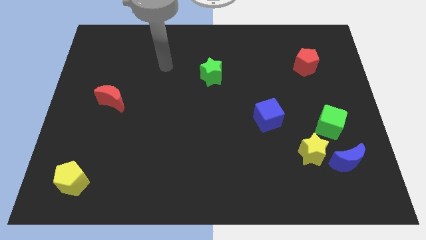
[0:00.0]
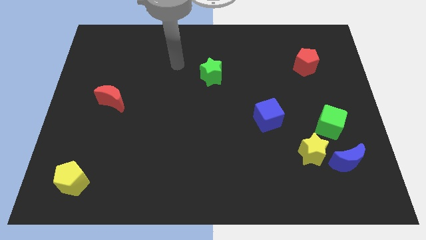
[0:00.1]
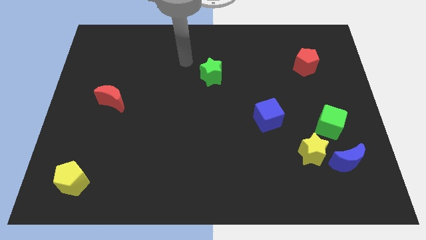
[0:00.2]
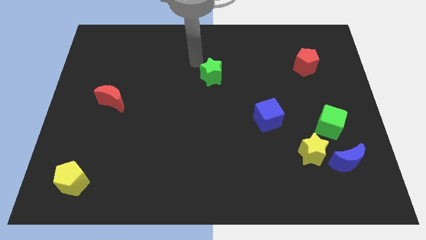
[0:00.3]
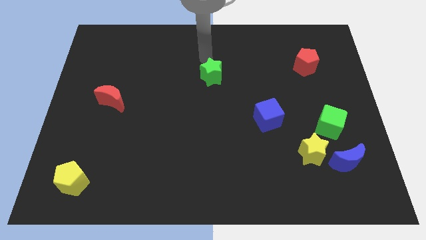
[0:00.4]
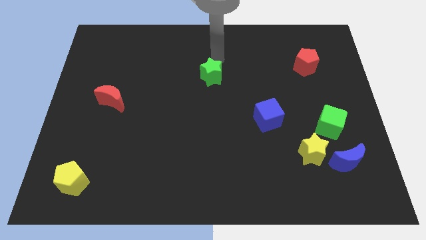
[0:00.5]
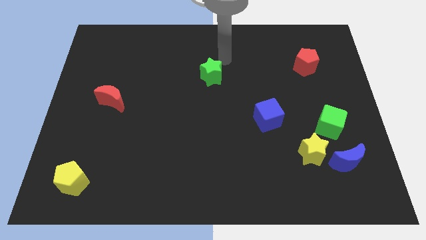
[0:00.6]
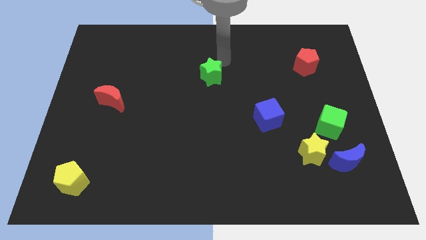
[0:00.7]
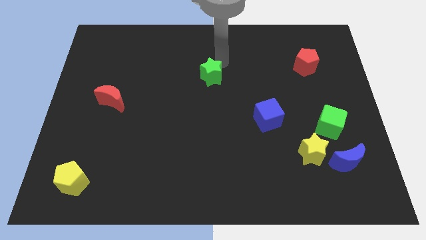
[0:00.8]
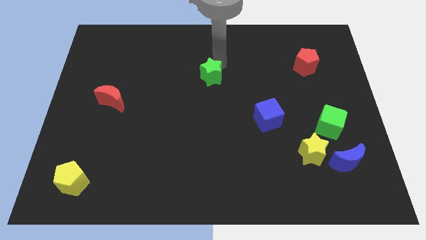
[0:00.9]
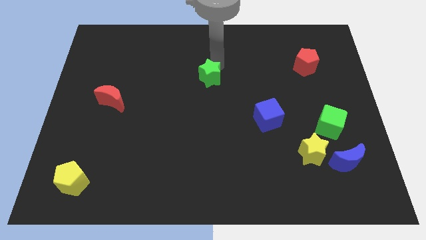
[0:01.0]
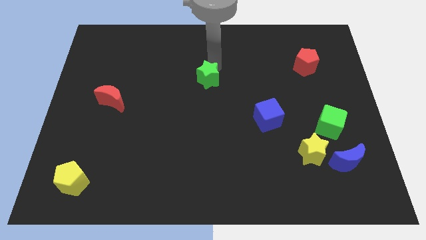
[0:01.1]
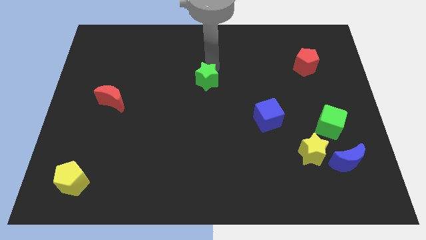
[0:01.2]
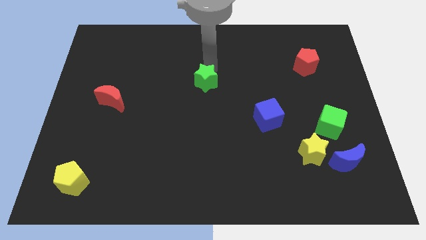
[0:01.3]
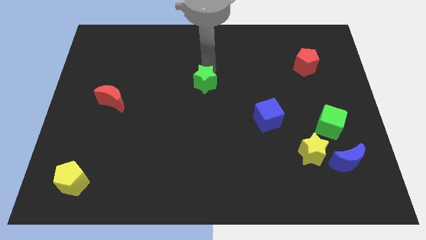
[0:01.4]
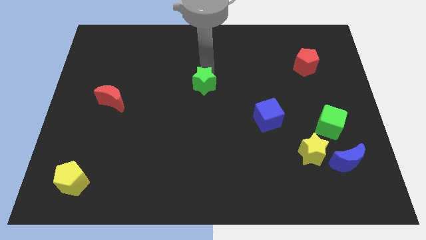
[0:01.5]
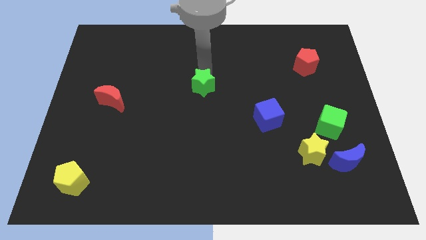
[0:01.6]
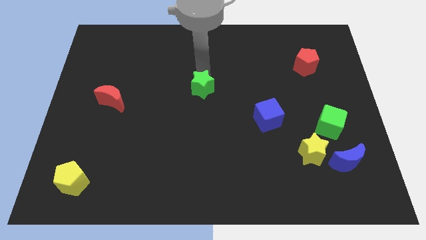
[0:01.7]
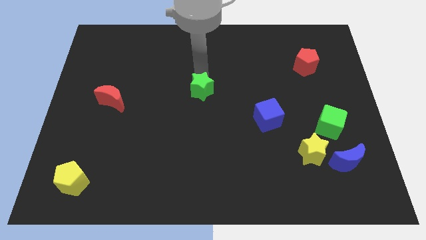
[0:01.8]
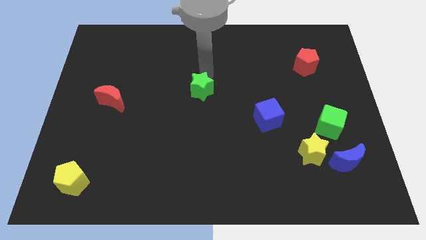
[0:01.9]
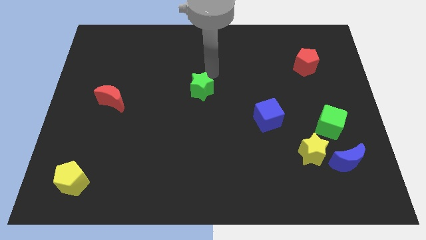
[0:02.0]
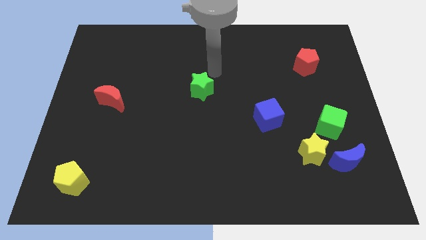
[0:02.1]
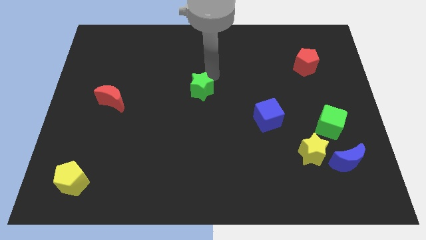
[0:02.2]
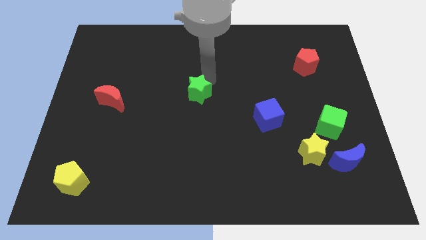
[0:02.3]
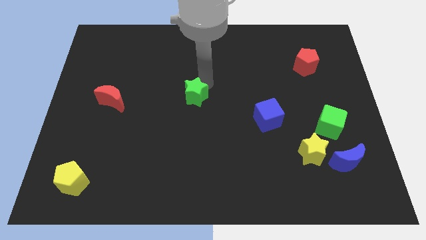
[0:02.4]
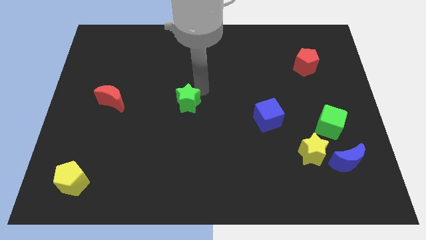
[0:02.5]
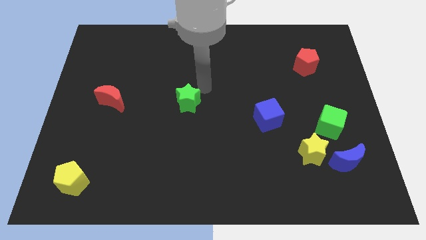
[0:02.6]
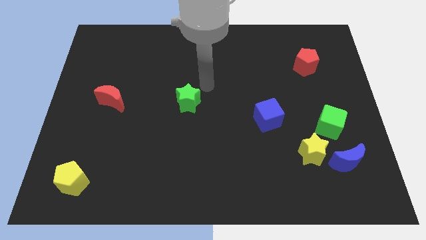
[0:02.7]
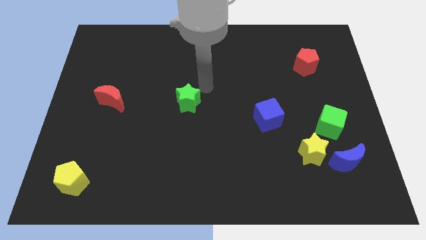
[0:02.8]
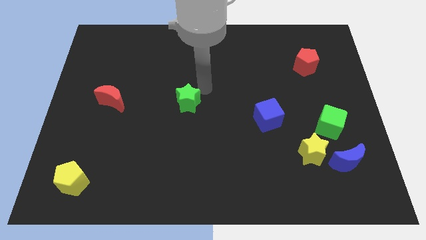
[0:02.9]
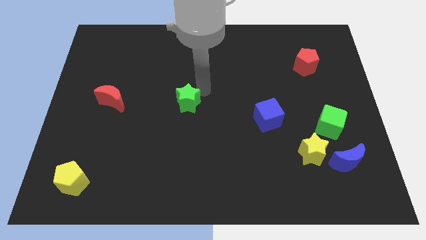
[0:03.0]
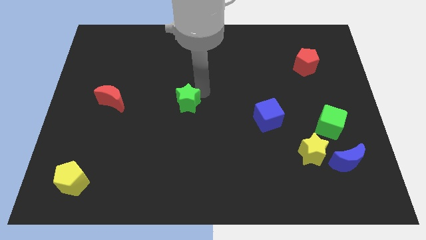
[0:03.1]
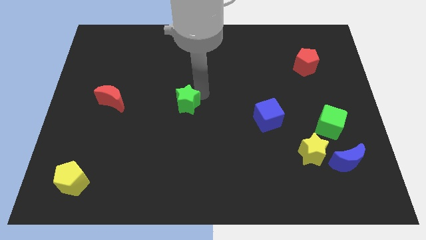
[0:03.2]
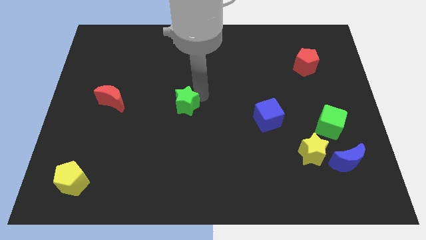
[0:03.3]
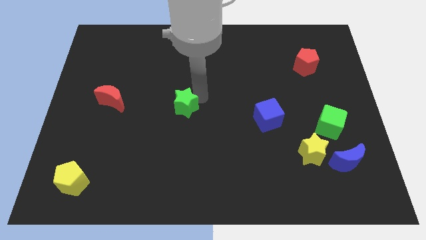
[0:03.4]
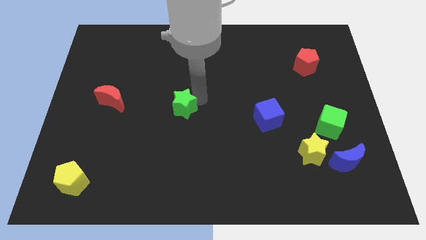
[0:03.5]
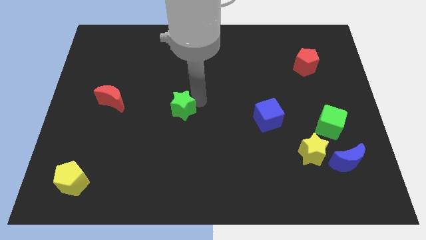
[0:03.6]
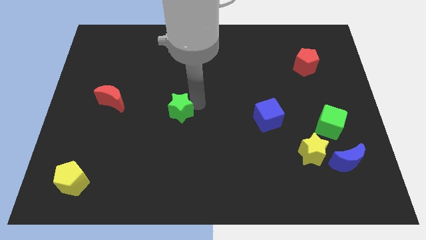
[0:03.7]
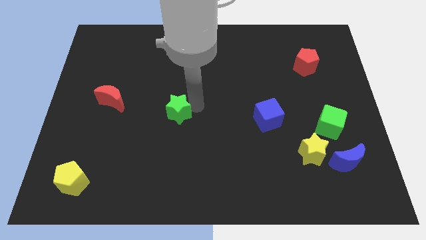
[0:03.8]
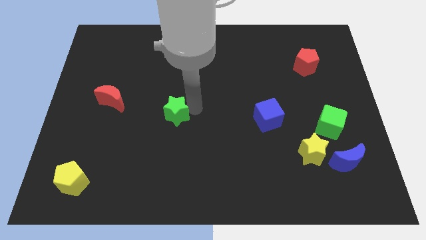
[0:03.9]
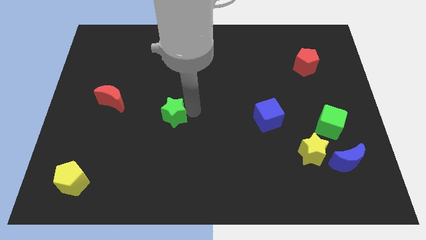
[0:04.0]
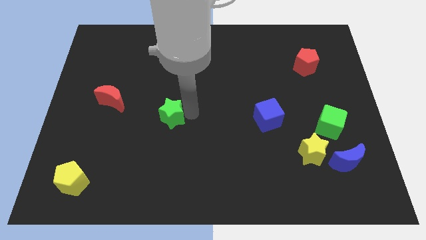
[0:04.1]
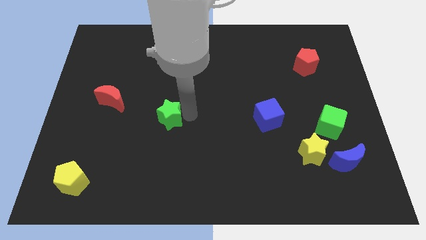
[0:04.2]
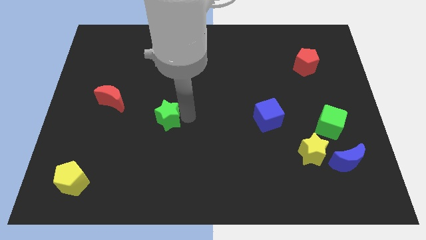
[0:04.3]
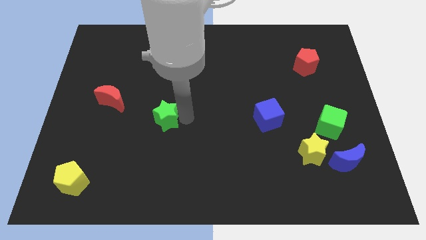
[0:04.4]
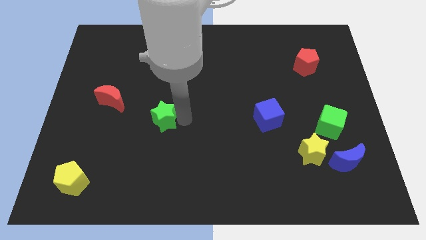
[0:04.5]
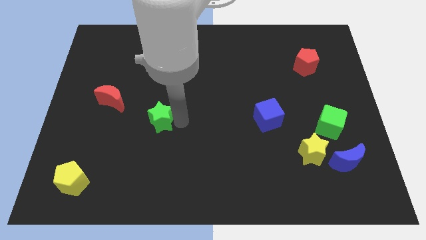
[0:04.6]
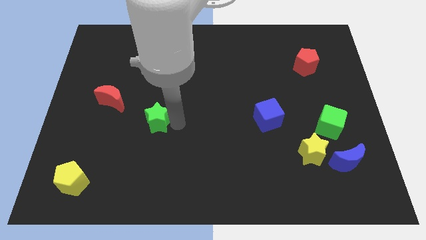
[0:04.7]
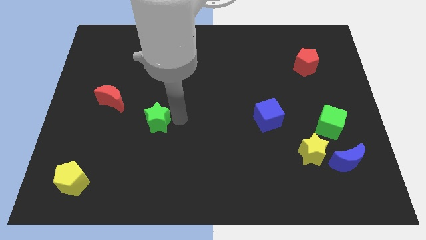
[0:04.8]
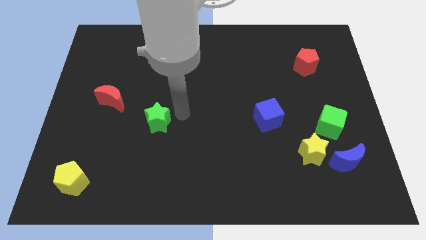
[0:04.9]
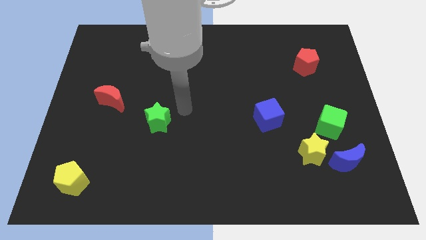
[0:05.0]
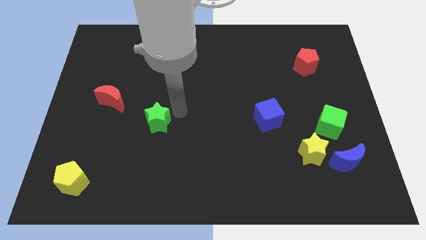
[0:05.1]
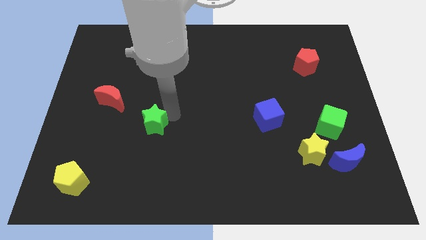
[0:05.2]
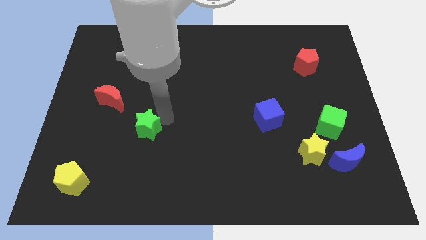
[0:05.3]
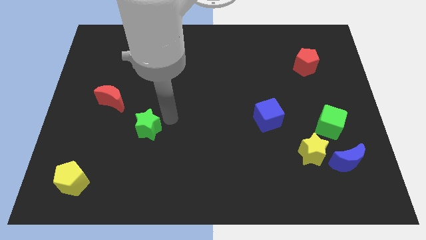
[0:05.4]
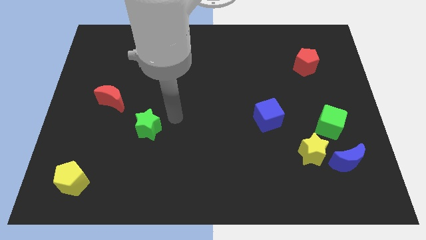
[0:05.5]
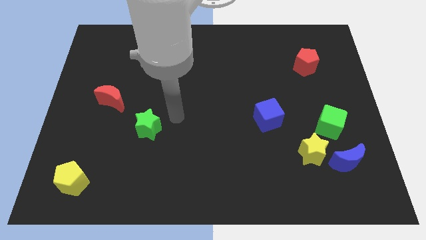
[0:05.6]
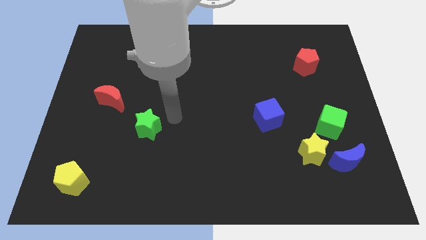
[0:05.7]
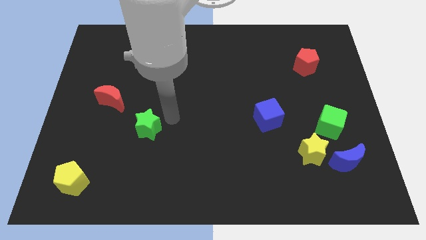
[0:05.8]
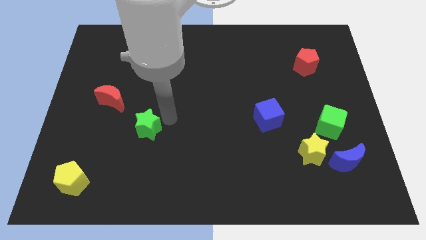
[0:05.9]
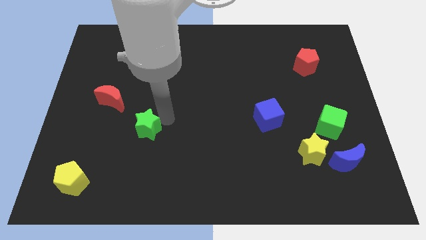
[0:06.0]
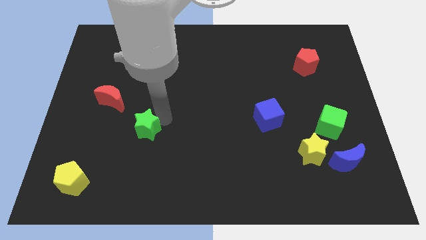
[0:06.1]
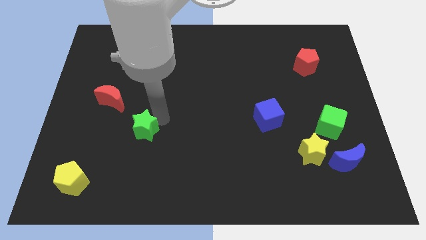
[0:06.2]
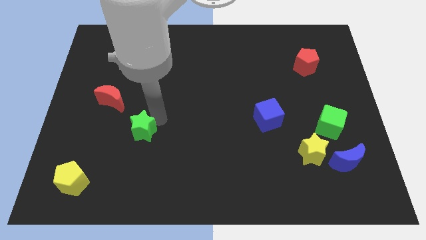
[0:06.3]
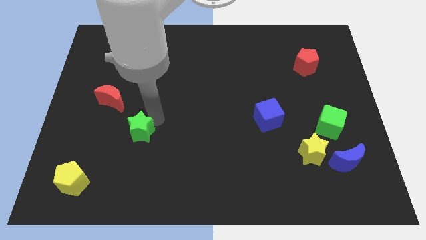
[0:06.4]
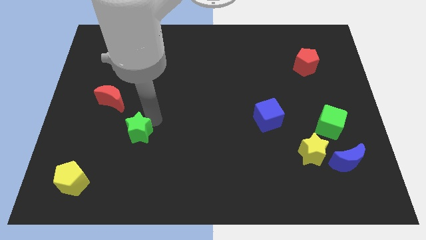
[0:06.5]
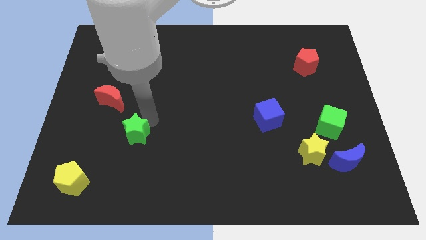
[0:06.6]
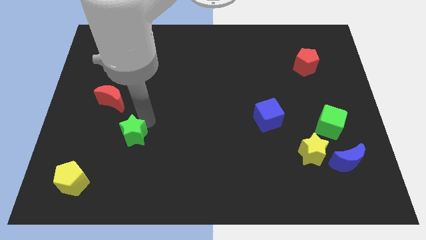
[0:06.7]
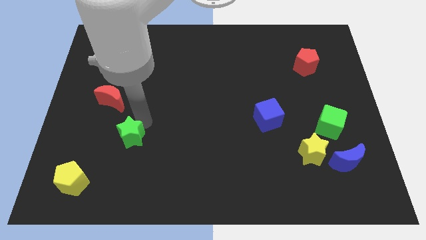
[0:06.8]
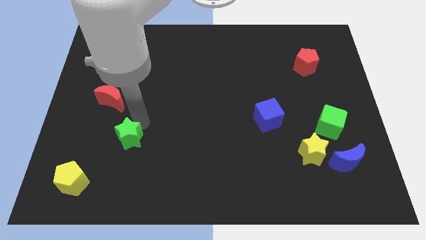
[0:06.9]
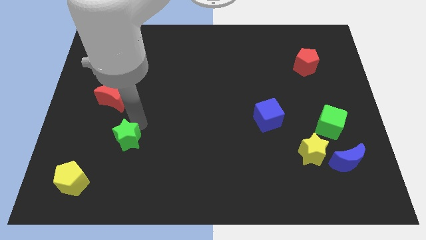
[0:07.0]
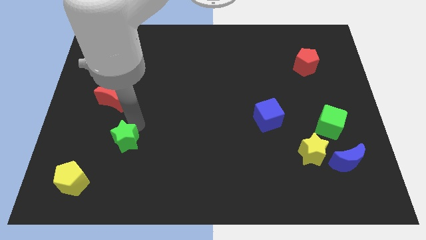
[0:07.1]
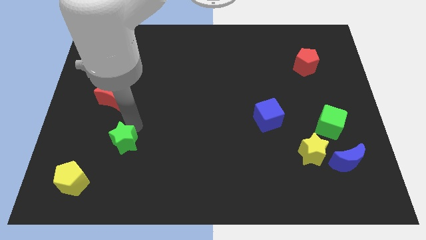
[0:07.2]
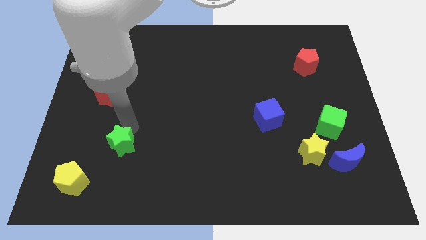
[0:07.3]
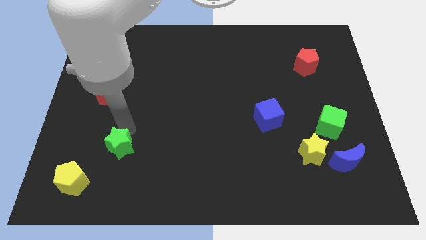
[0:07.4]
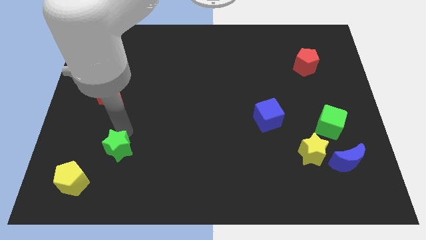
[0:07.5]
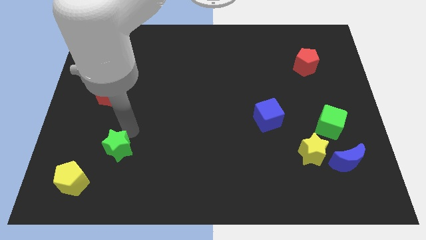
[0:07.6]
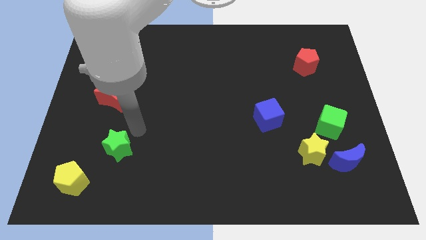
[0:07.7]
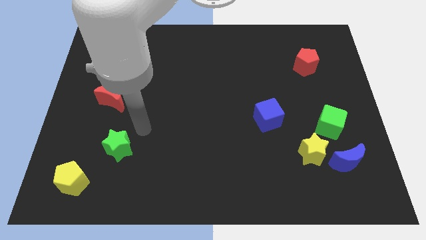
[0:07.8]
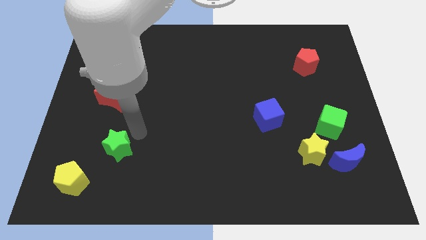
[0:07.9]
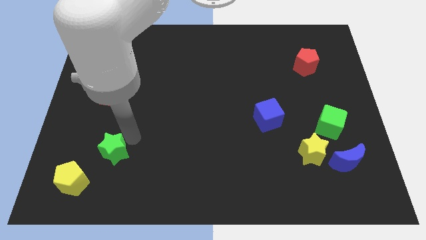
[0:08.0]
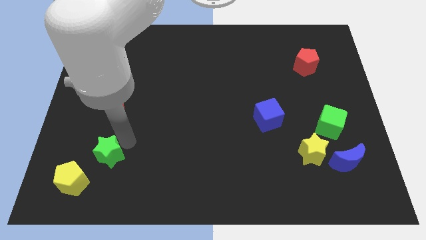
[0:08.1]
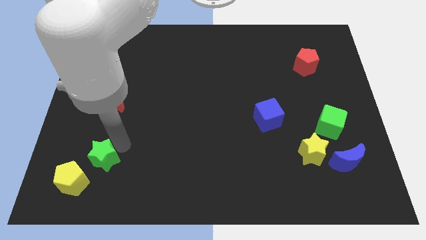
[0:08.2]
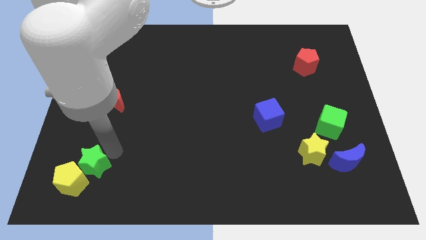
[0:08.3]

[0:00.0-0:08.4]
put the green star towards the yellow pentagon
